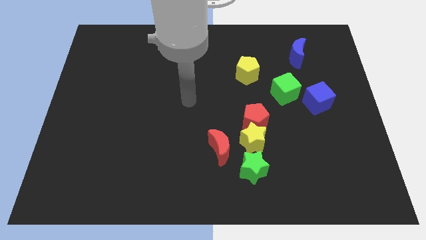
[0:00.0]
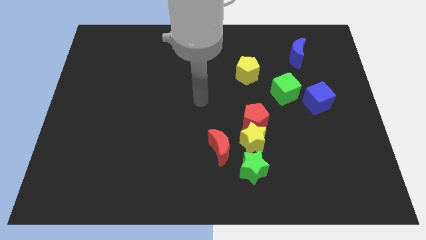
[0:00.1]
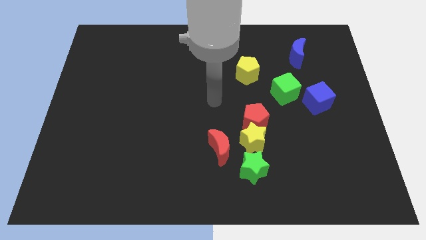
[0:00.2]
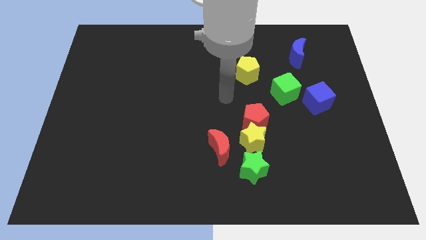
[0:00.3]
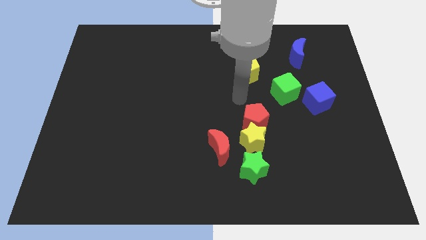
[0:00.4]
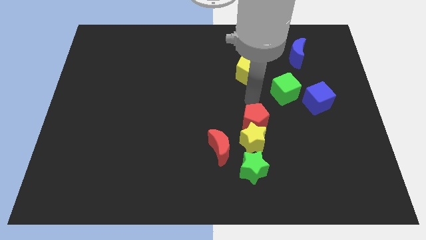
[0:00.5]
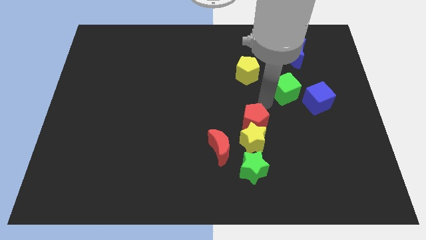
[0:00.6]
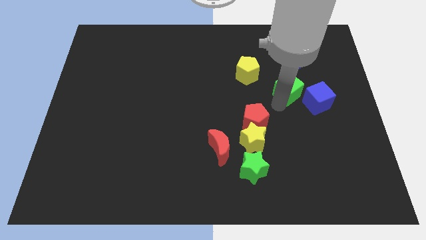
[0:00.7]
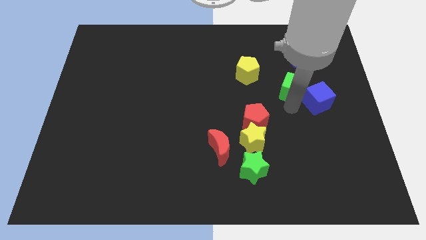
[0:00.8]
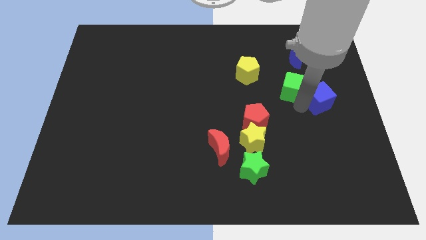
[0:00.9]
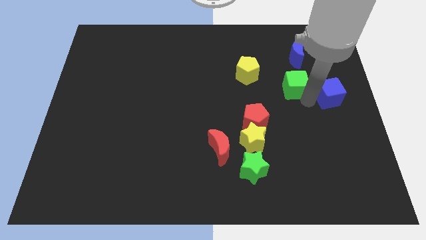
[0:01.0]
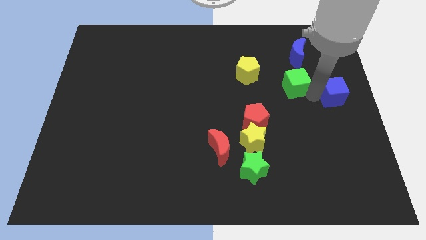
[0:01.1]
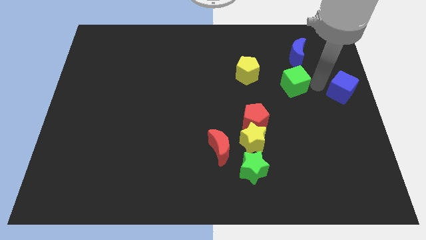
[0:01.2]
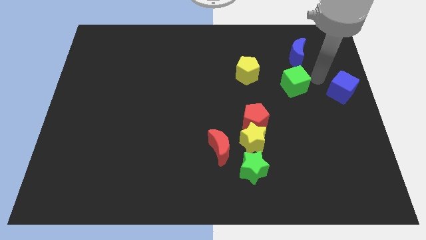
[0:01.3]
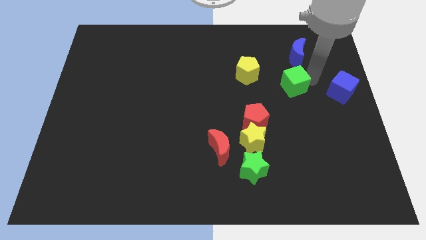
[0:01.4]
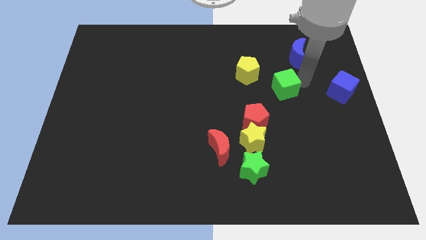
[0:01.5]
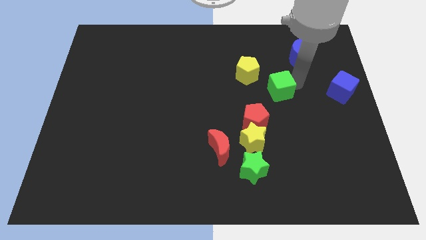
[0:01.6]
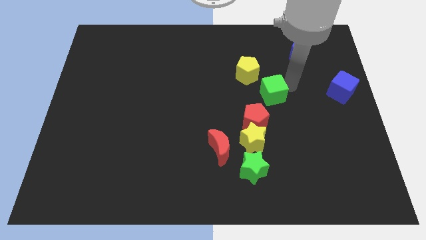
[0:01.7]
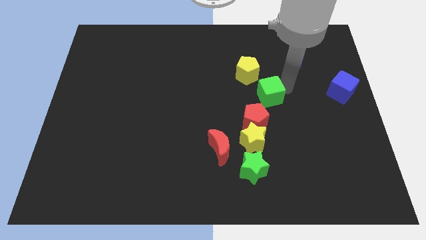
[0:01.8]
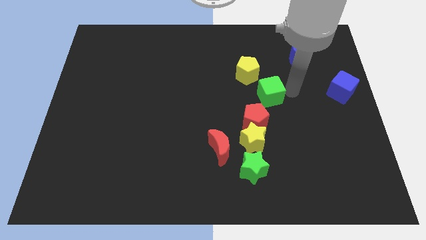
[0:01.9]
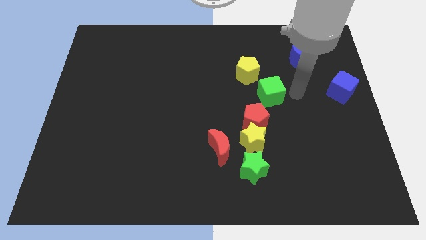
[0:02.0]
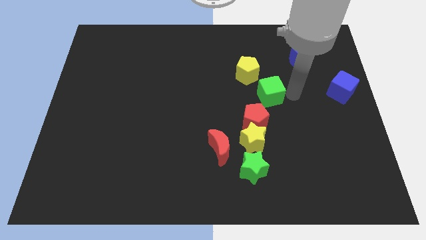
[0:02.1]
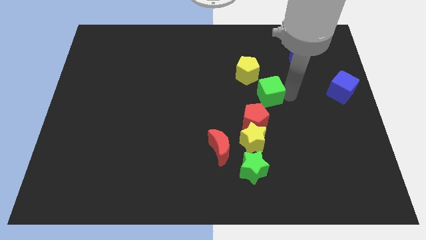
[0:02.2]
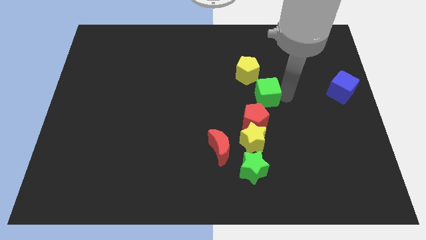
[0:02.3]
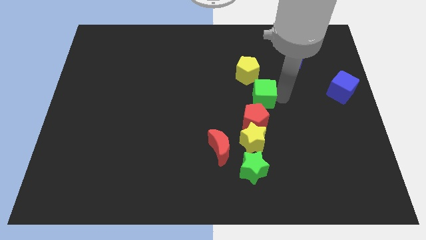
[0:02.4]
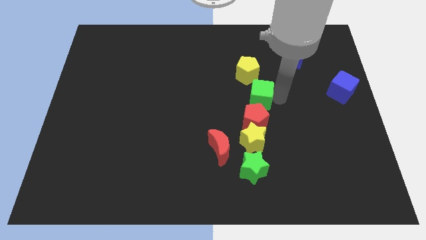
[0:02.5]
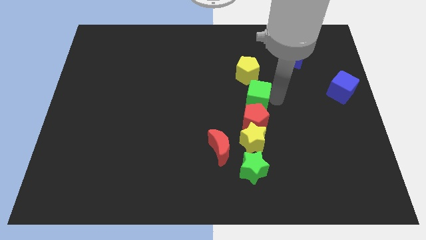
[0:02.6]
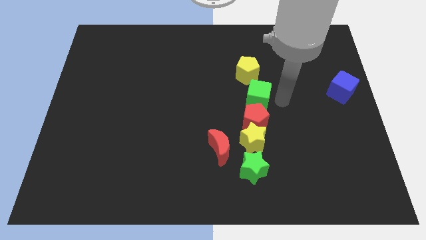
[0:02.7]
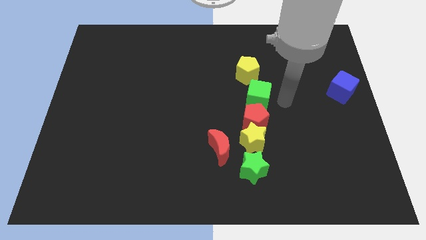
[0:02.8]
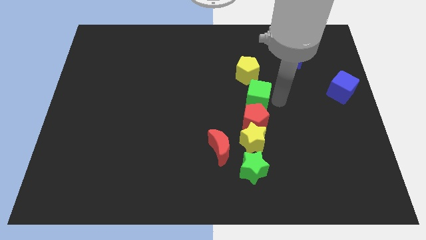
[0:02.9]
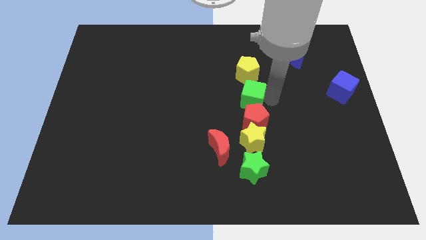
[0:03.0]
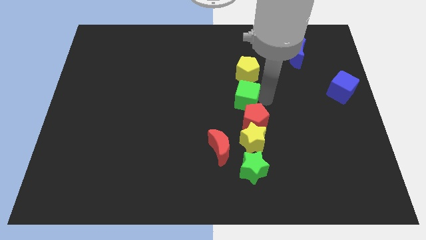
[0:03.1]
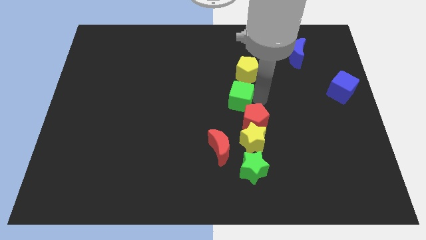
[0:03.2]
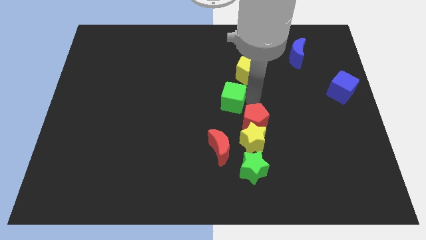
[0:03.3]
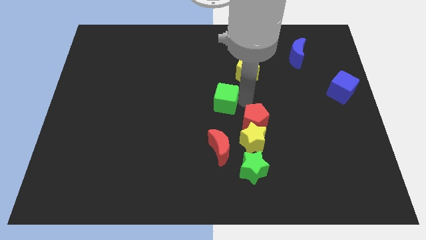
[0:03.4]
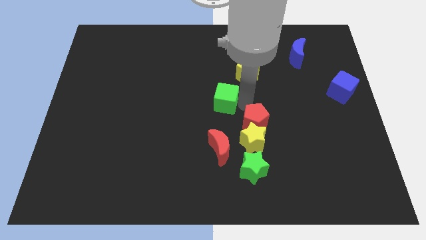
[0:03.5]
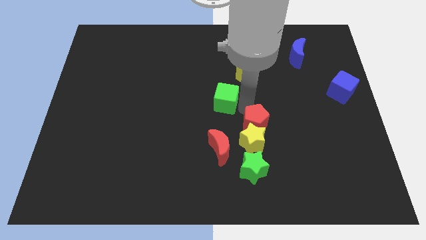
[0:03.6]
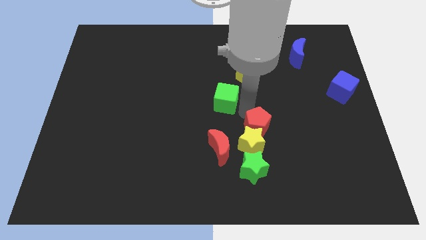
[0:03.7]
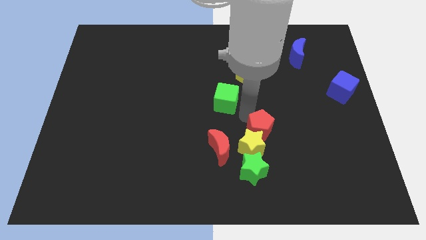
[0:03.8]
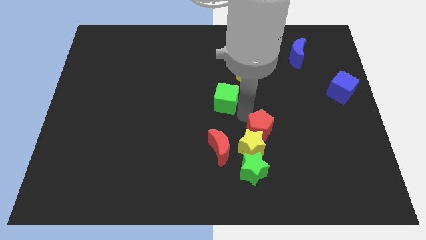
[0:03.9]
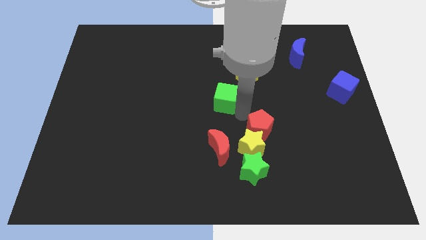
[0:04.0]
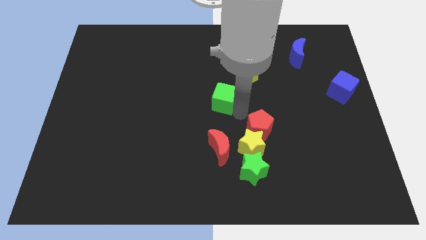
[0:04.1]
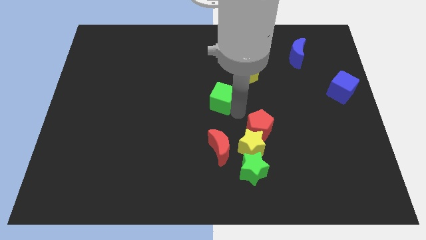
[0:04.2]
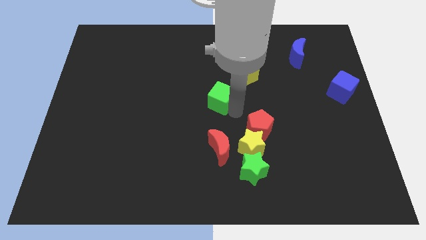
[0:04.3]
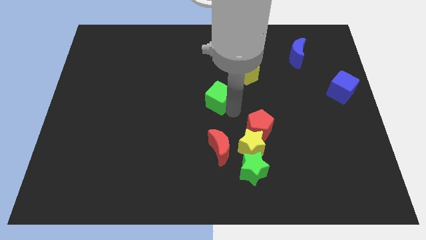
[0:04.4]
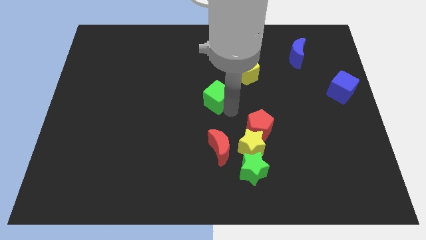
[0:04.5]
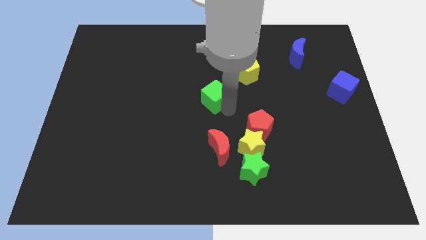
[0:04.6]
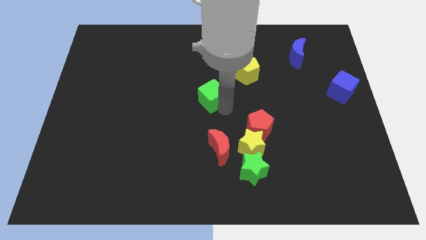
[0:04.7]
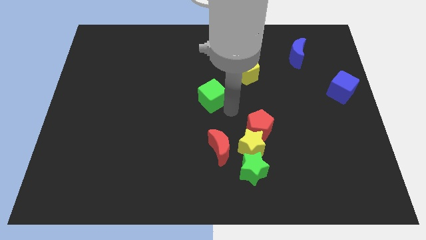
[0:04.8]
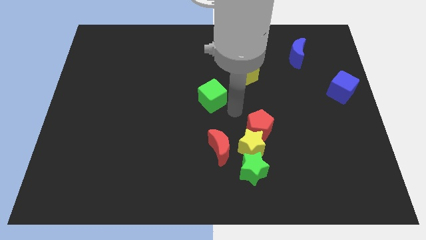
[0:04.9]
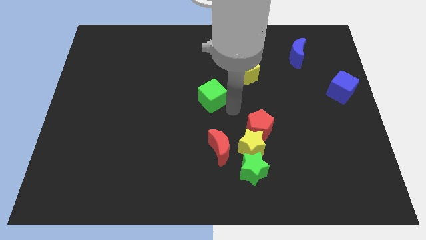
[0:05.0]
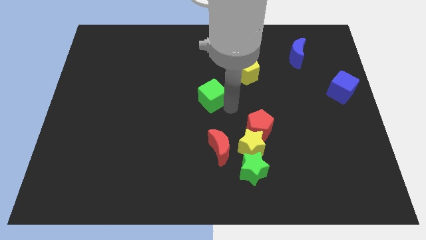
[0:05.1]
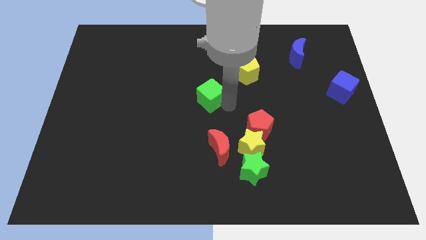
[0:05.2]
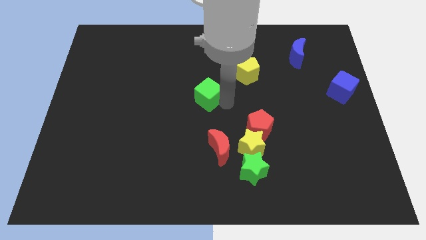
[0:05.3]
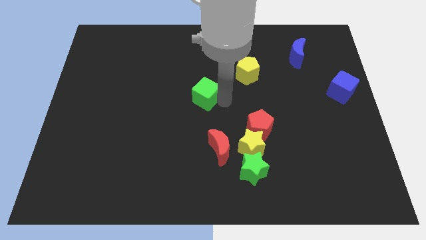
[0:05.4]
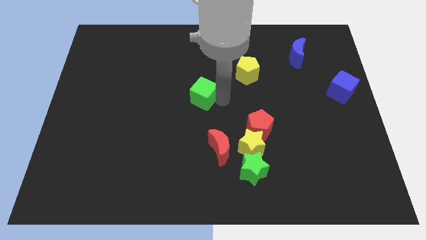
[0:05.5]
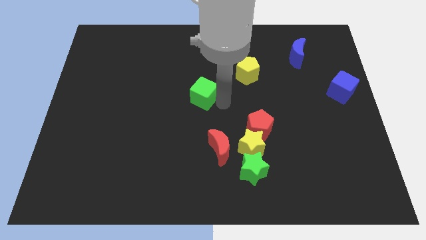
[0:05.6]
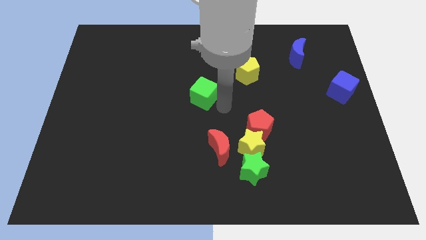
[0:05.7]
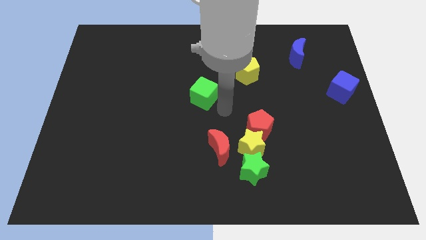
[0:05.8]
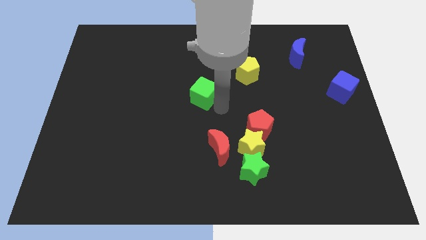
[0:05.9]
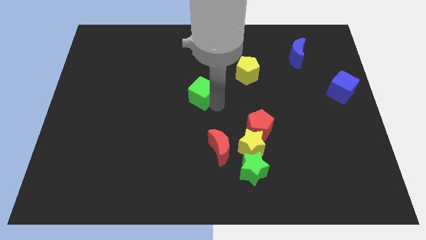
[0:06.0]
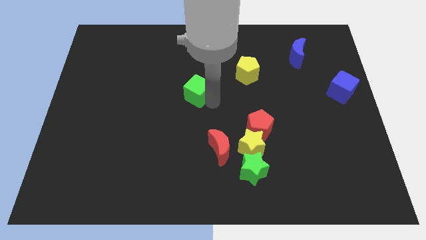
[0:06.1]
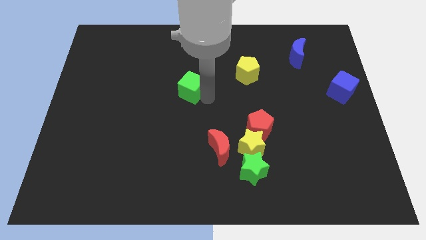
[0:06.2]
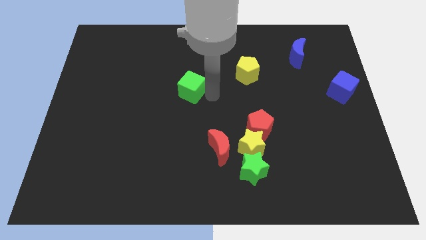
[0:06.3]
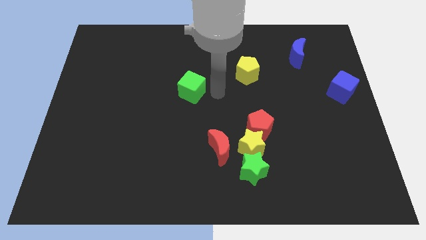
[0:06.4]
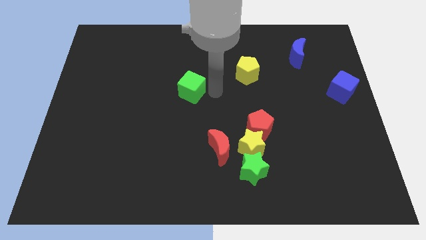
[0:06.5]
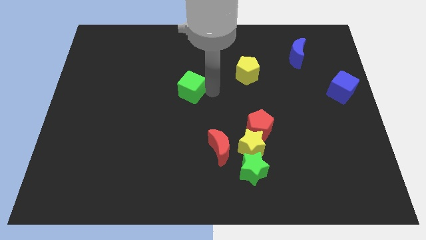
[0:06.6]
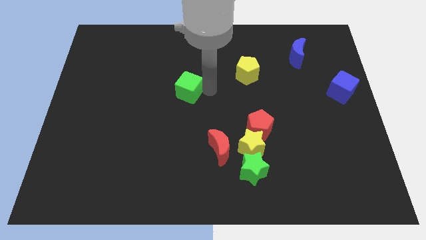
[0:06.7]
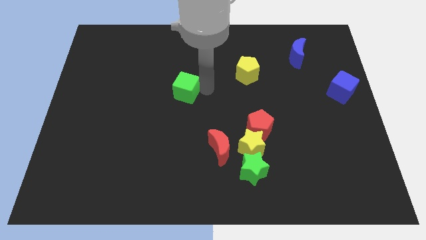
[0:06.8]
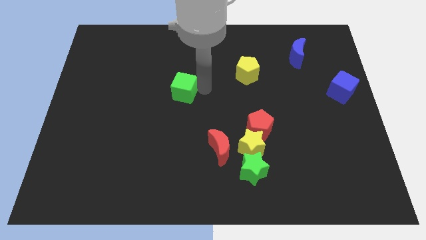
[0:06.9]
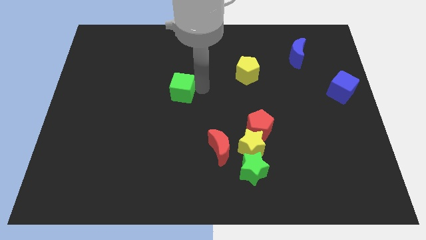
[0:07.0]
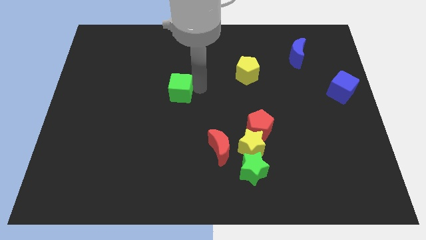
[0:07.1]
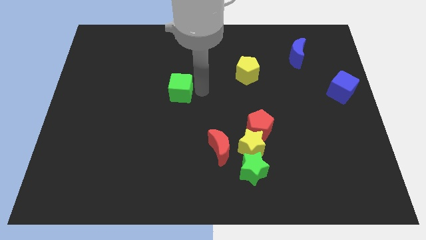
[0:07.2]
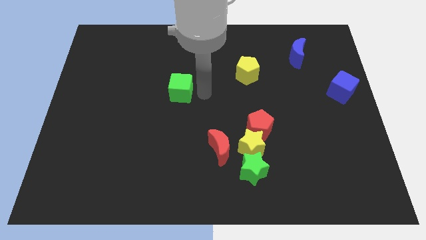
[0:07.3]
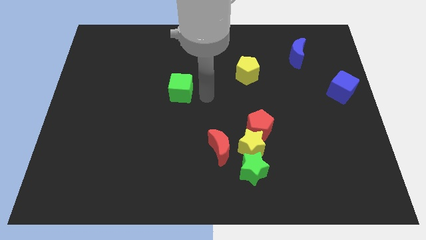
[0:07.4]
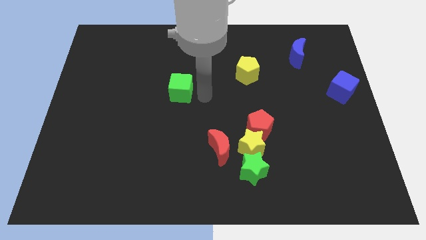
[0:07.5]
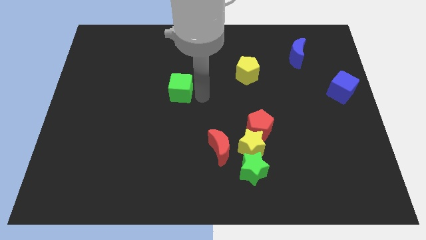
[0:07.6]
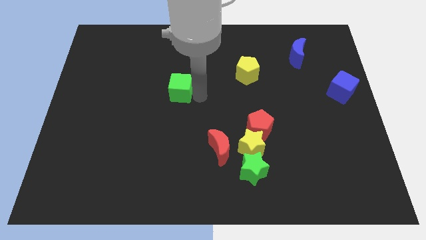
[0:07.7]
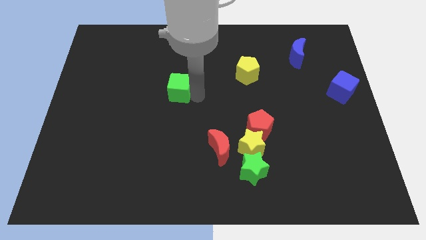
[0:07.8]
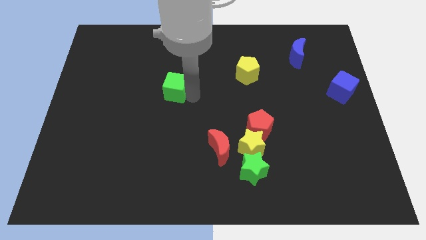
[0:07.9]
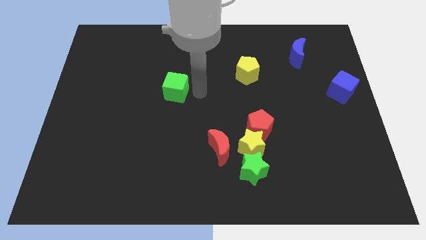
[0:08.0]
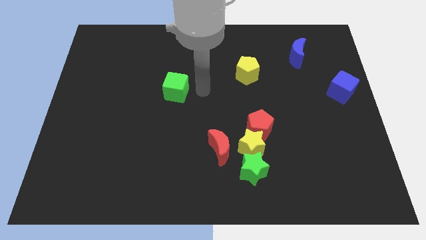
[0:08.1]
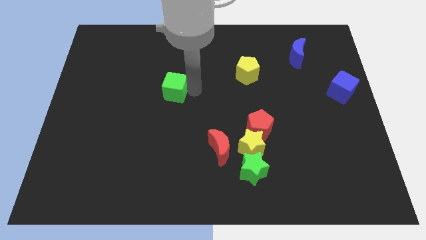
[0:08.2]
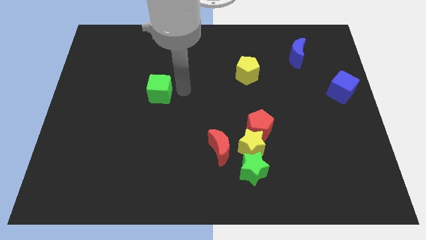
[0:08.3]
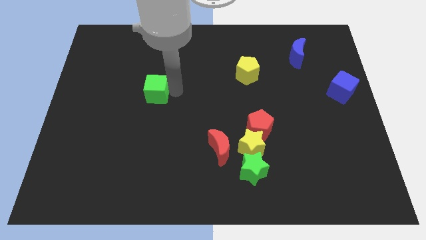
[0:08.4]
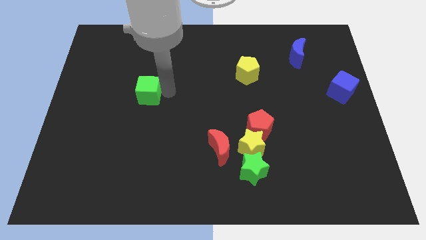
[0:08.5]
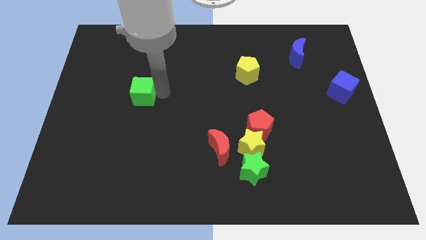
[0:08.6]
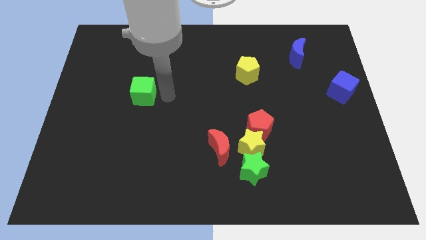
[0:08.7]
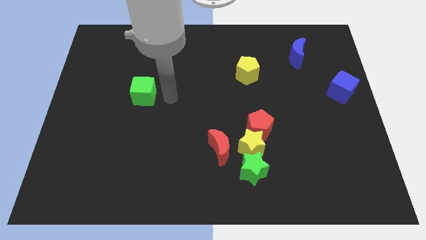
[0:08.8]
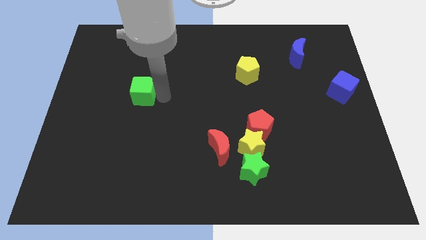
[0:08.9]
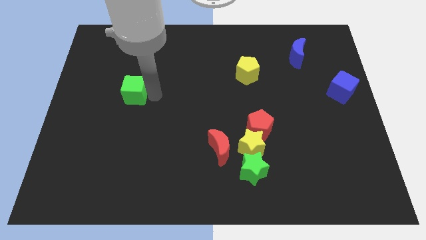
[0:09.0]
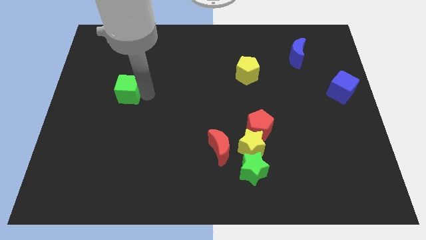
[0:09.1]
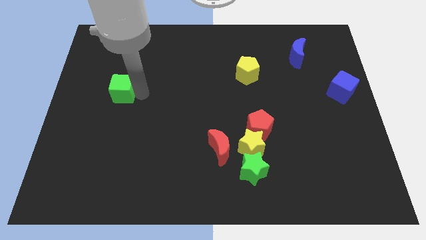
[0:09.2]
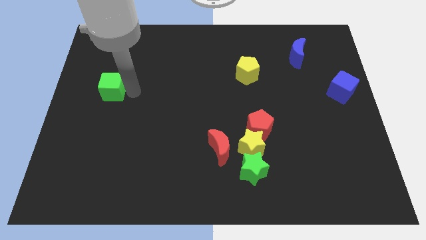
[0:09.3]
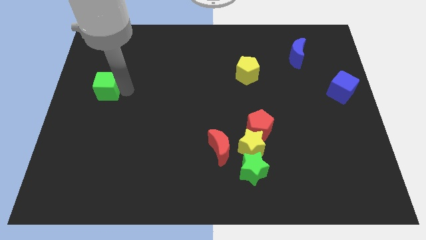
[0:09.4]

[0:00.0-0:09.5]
move the green cube to the left side
